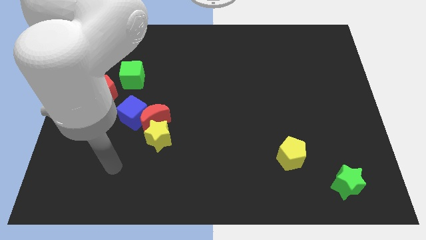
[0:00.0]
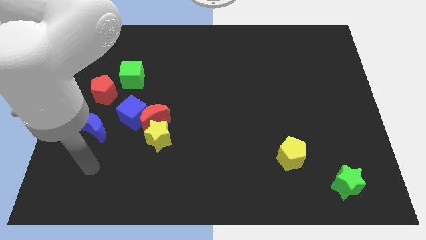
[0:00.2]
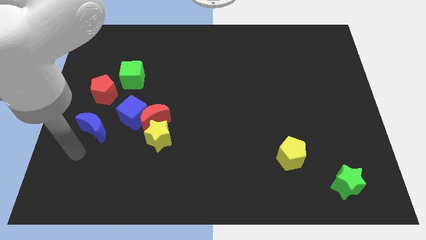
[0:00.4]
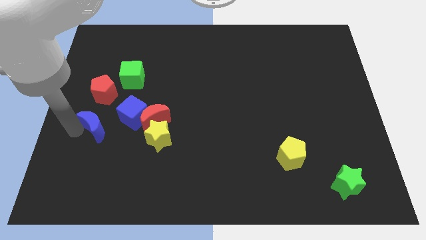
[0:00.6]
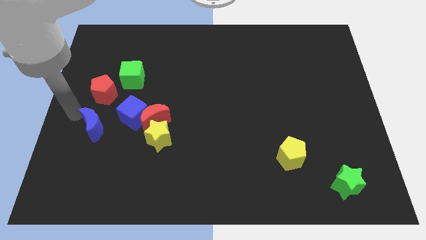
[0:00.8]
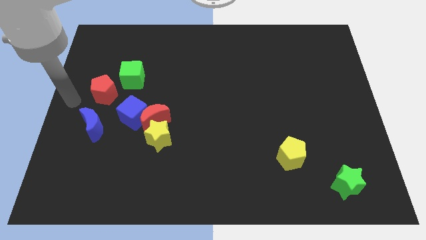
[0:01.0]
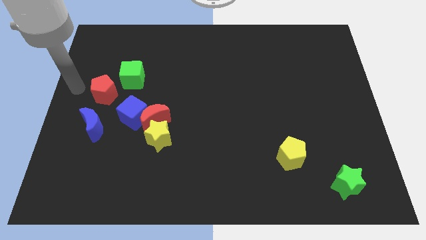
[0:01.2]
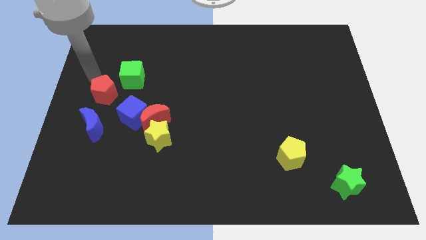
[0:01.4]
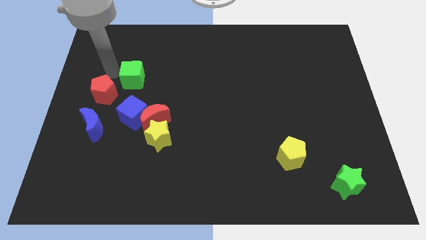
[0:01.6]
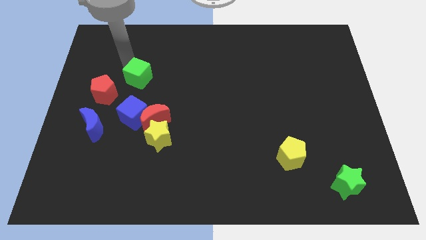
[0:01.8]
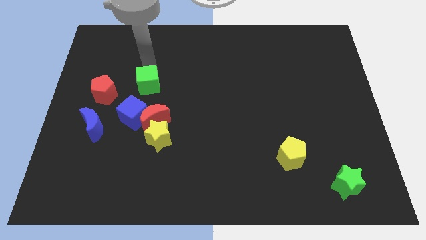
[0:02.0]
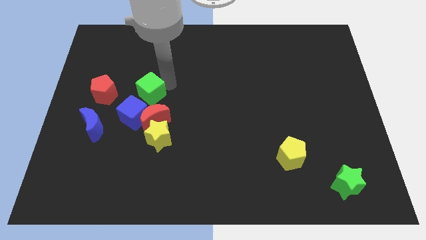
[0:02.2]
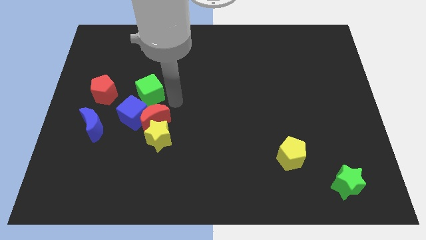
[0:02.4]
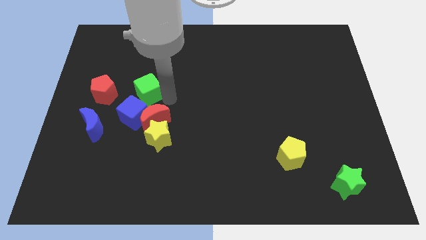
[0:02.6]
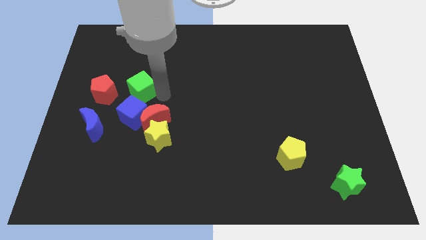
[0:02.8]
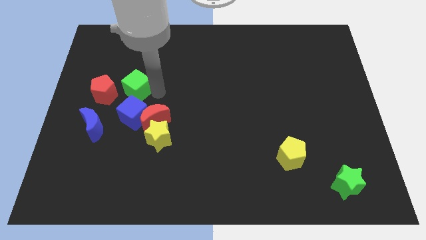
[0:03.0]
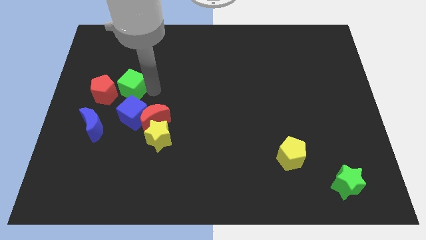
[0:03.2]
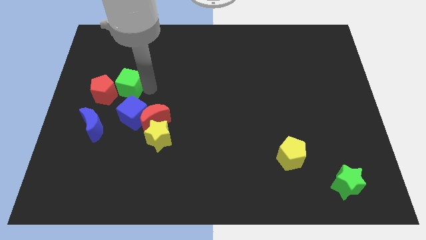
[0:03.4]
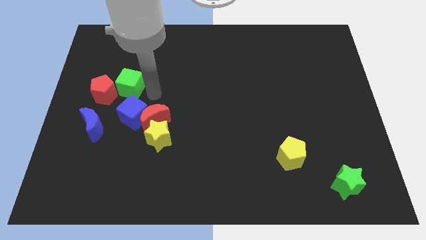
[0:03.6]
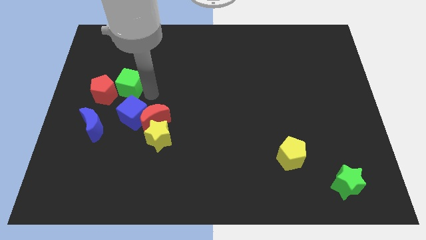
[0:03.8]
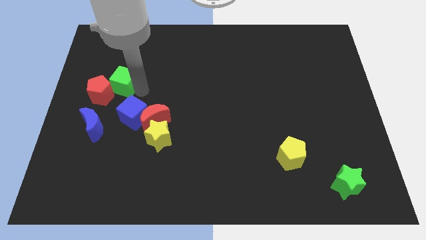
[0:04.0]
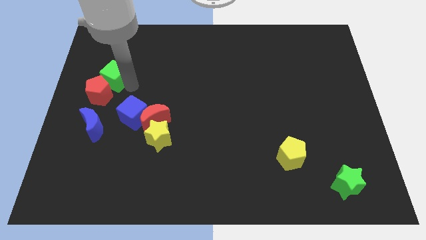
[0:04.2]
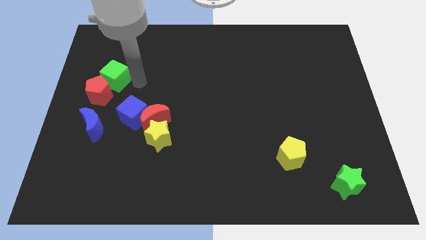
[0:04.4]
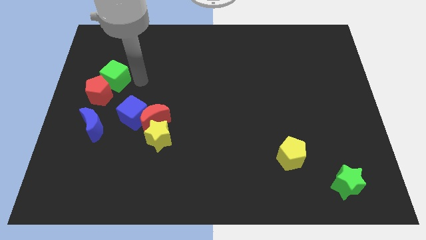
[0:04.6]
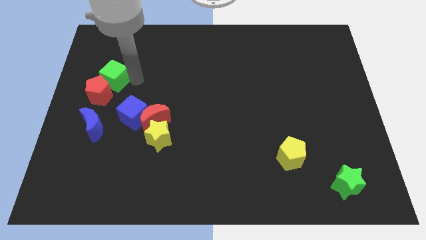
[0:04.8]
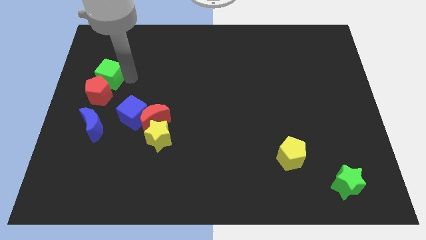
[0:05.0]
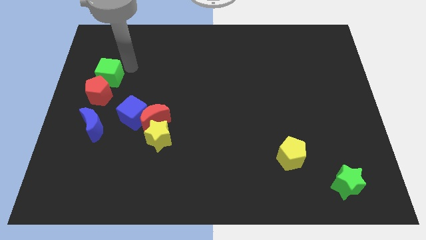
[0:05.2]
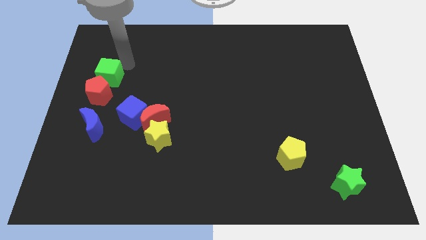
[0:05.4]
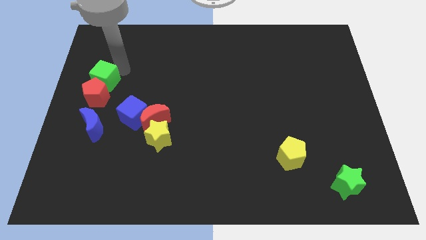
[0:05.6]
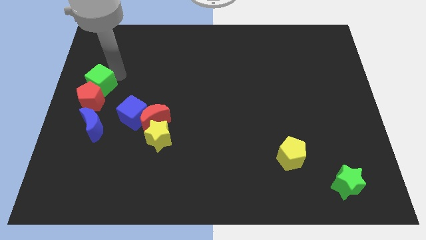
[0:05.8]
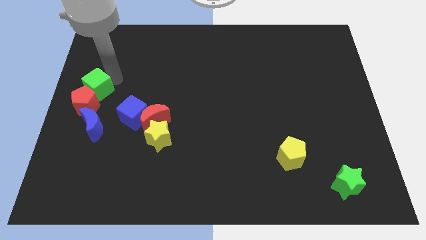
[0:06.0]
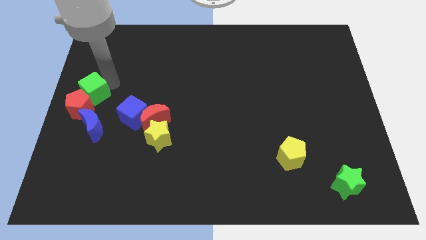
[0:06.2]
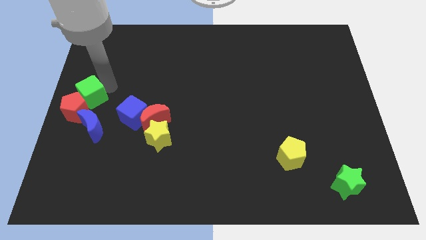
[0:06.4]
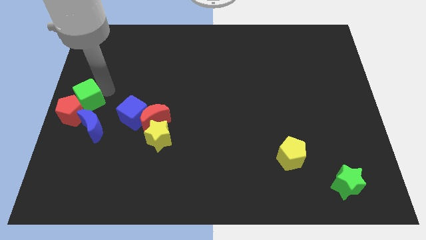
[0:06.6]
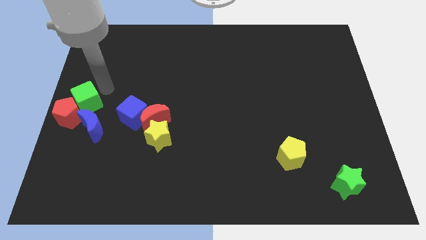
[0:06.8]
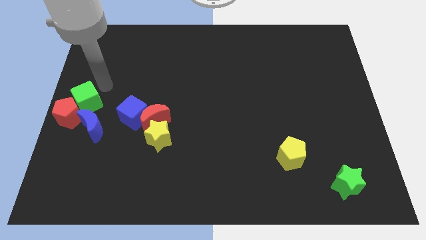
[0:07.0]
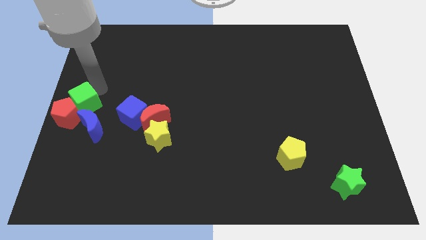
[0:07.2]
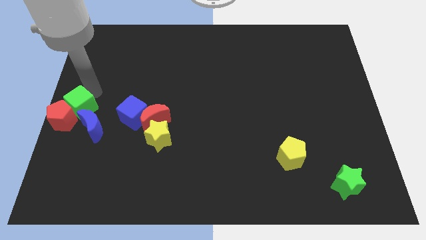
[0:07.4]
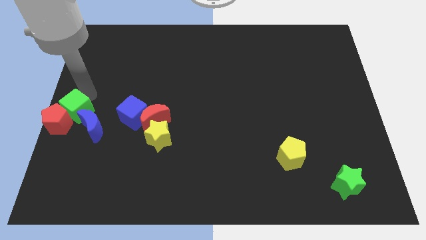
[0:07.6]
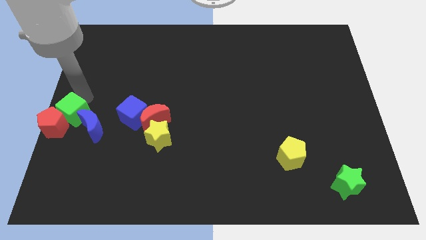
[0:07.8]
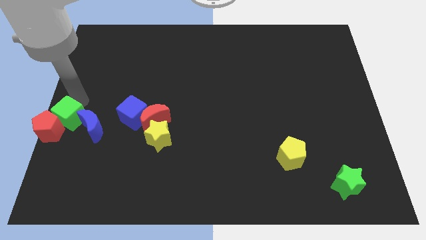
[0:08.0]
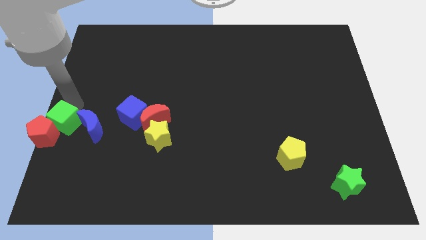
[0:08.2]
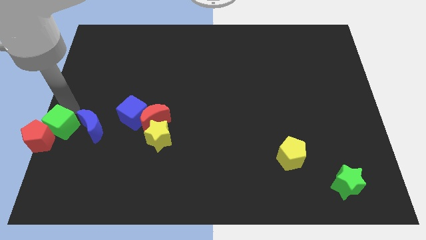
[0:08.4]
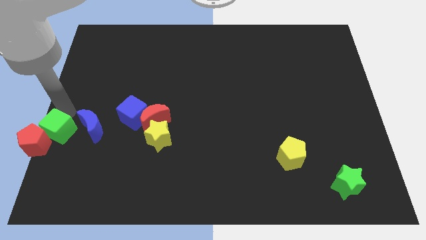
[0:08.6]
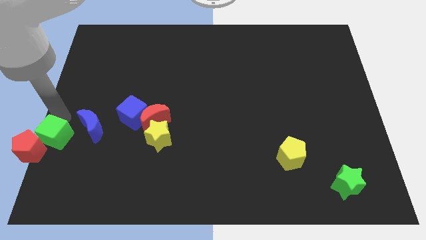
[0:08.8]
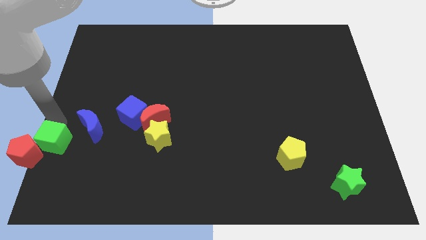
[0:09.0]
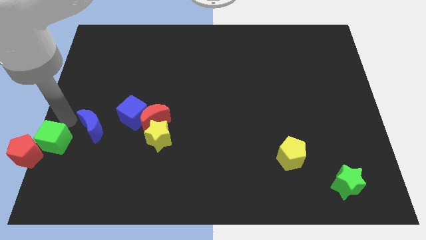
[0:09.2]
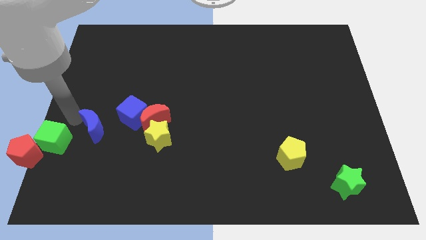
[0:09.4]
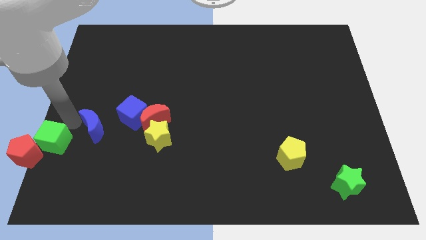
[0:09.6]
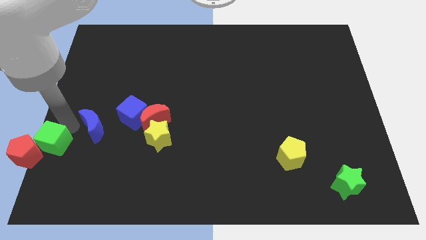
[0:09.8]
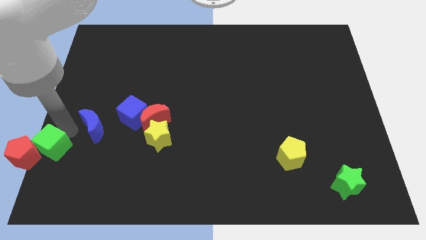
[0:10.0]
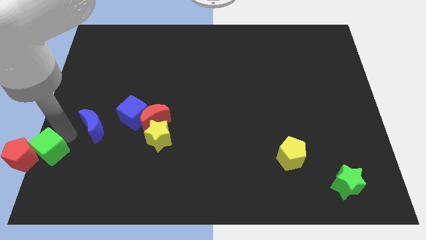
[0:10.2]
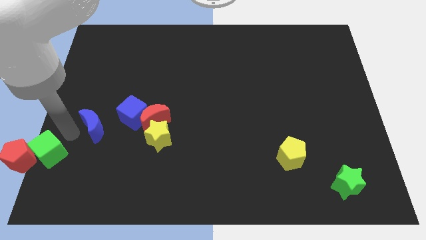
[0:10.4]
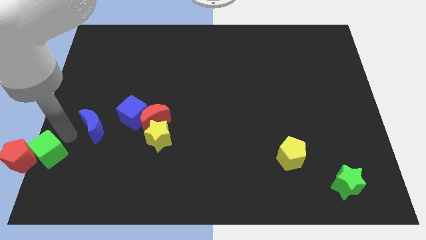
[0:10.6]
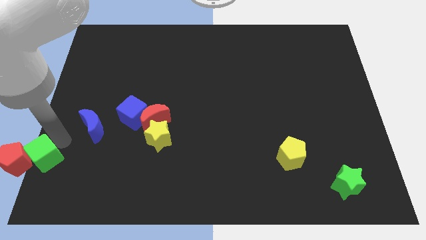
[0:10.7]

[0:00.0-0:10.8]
push the green cube to the bottom left corner
